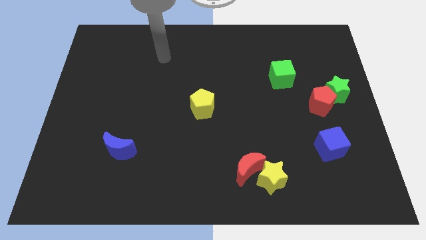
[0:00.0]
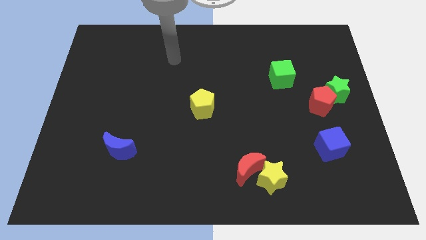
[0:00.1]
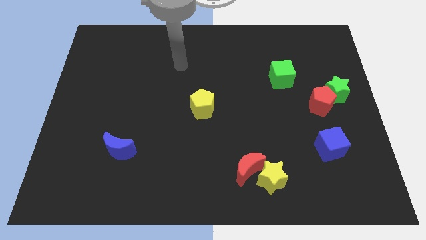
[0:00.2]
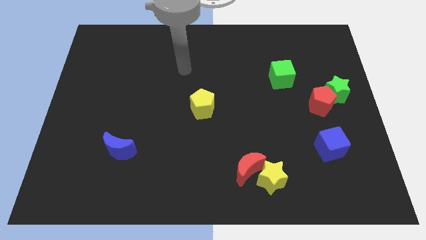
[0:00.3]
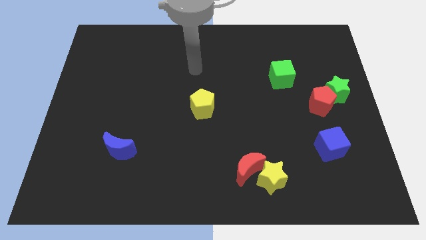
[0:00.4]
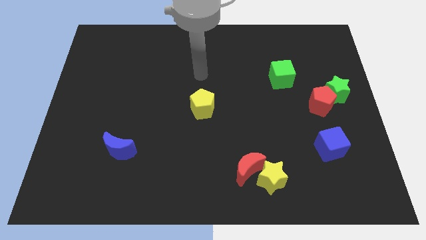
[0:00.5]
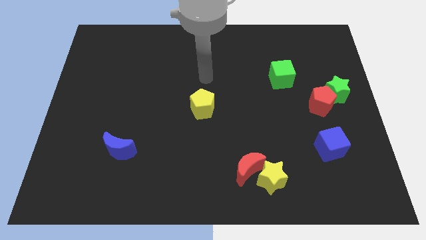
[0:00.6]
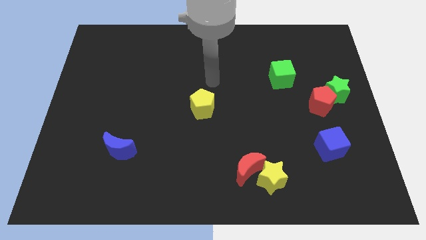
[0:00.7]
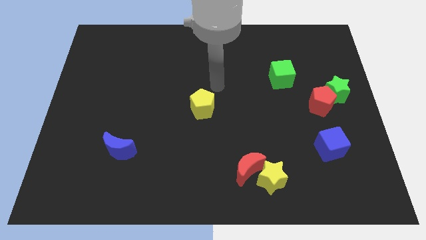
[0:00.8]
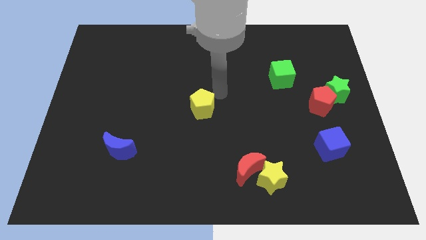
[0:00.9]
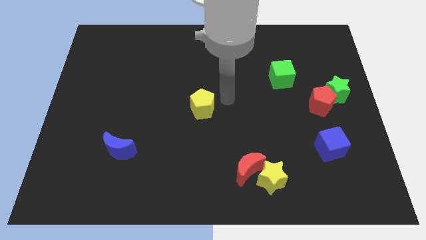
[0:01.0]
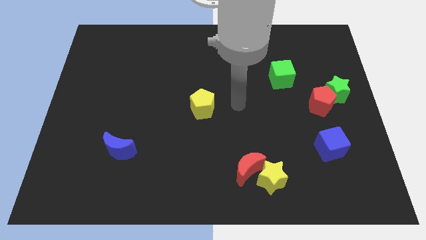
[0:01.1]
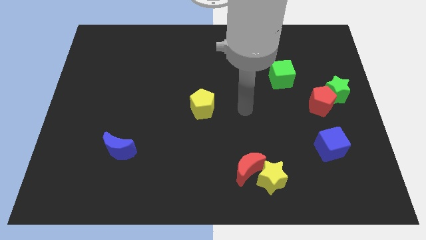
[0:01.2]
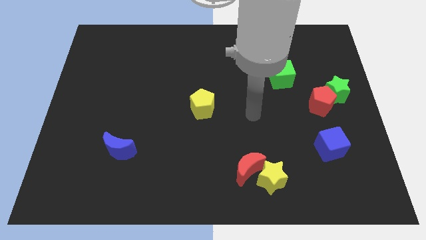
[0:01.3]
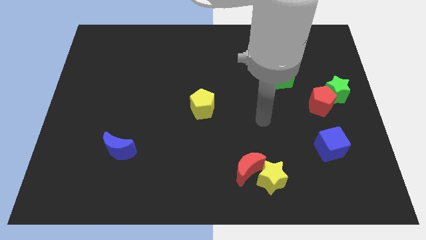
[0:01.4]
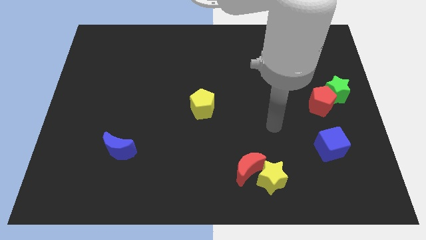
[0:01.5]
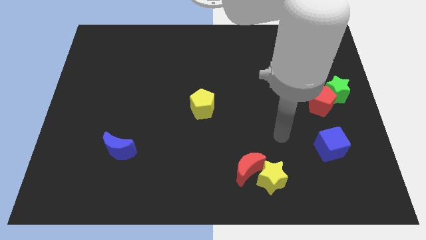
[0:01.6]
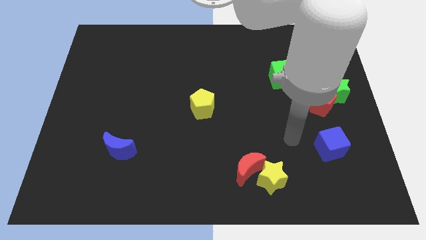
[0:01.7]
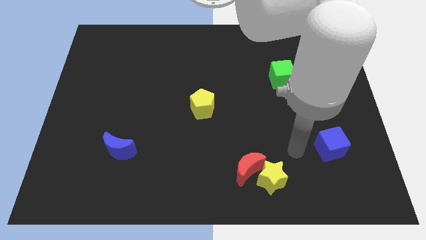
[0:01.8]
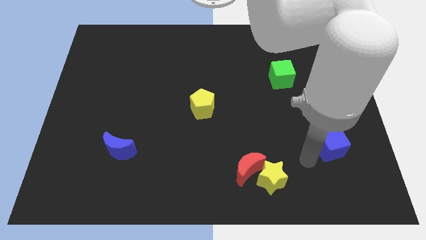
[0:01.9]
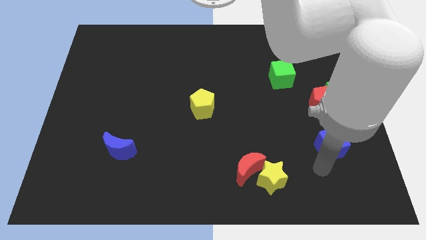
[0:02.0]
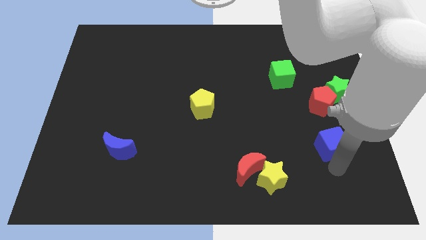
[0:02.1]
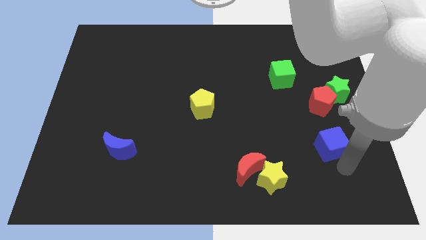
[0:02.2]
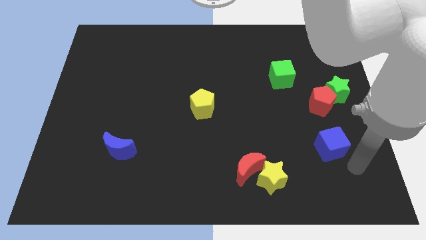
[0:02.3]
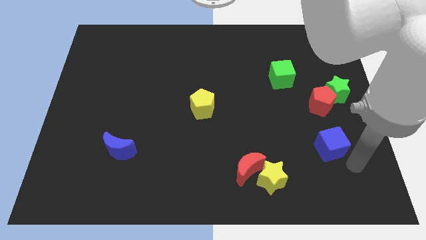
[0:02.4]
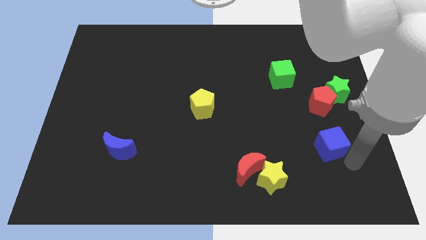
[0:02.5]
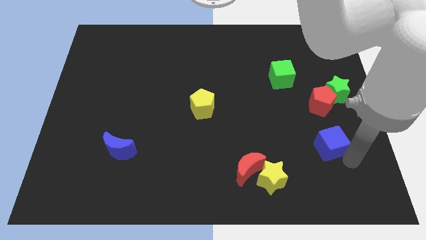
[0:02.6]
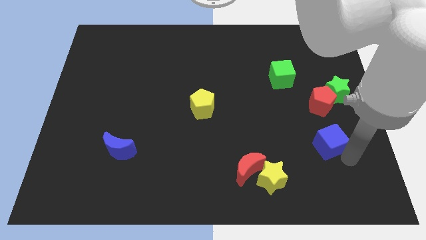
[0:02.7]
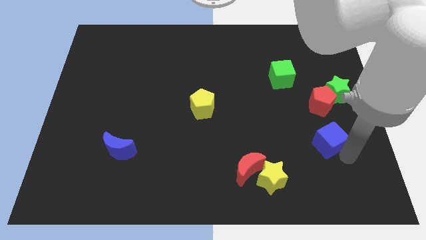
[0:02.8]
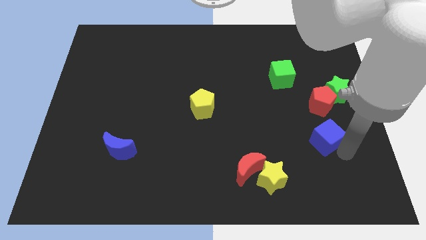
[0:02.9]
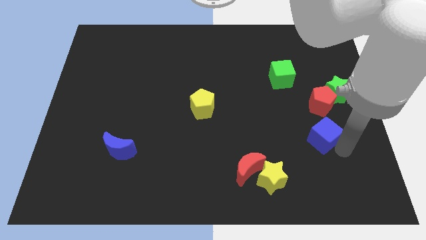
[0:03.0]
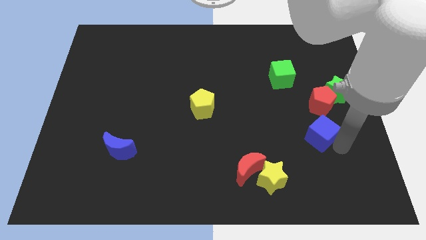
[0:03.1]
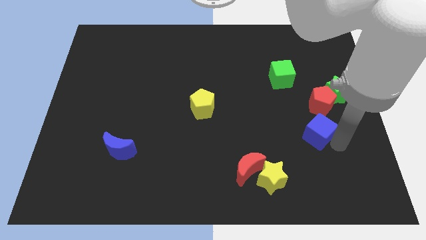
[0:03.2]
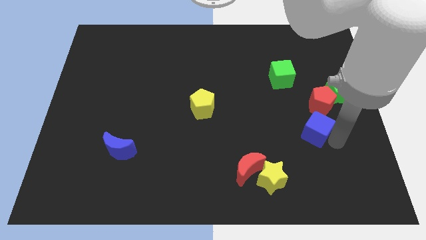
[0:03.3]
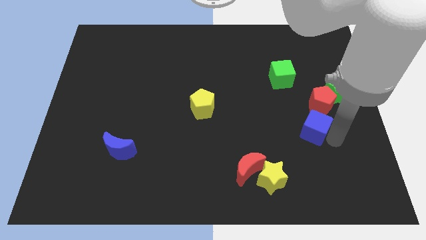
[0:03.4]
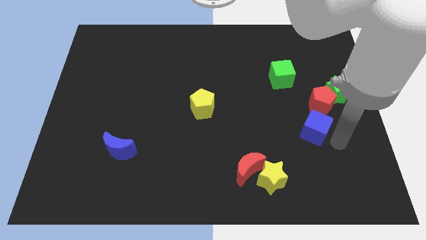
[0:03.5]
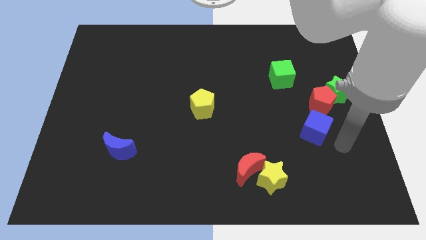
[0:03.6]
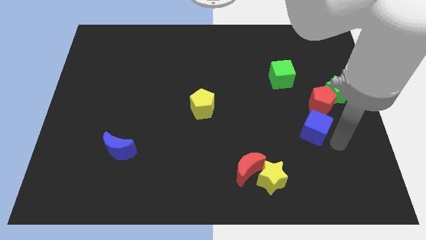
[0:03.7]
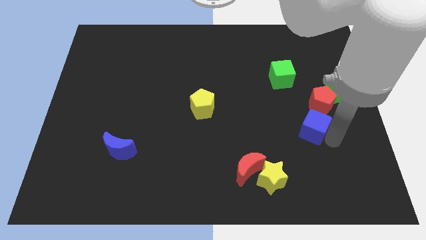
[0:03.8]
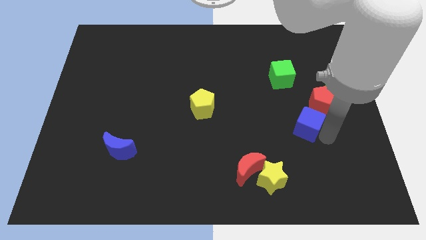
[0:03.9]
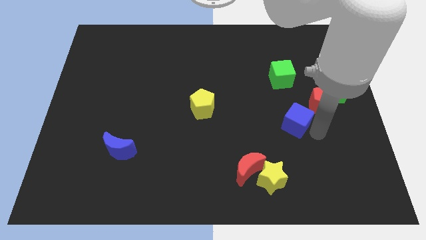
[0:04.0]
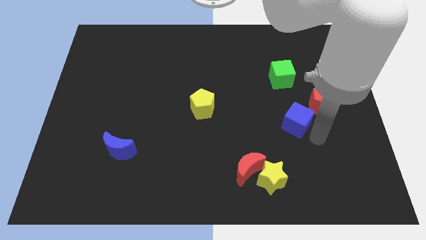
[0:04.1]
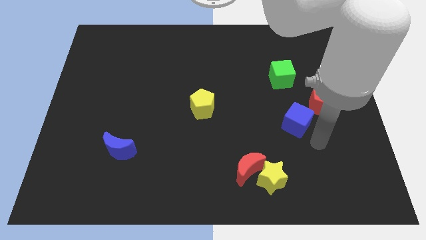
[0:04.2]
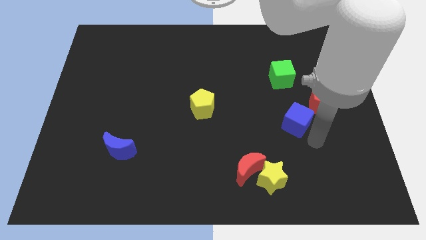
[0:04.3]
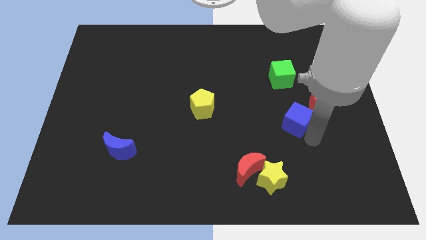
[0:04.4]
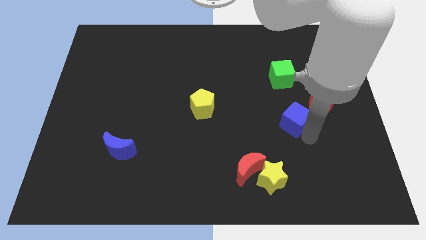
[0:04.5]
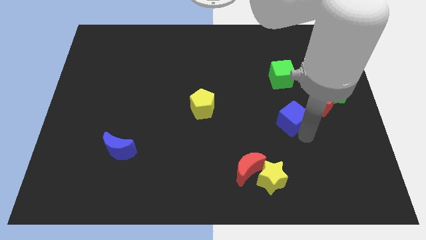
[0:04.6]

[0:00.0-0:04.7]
slide the blue cube to the left side of the red pentagon

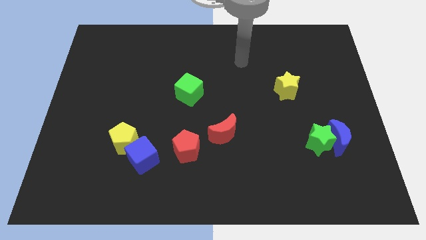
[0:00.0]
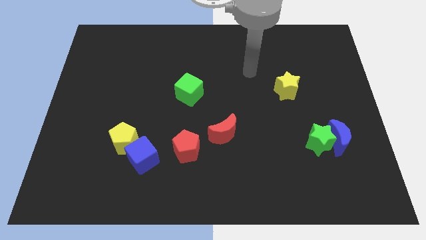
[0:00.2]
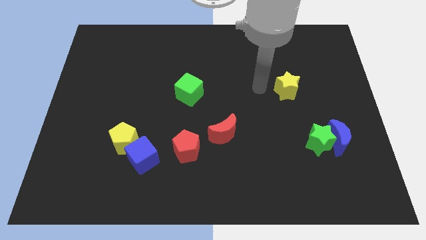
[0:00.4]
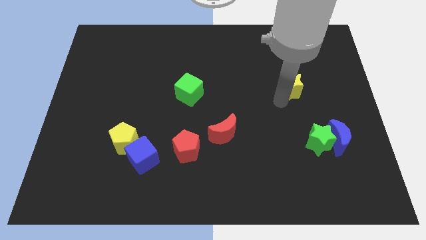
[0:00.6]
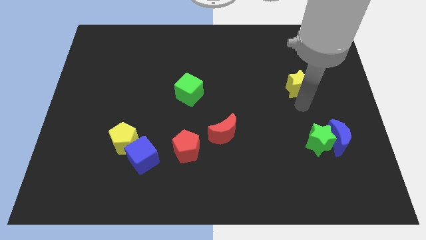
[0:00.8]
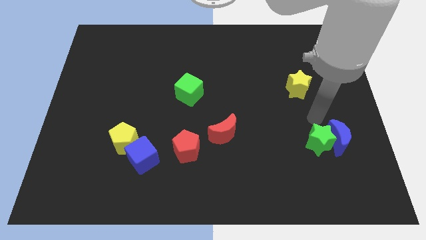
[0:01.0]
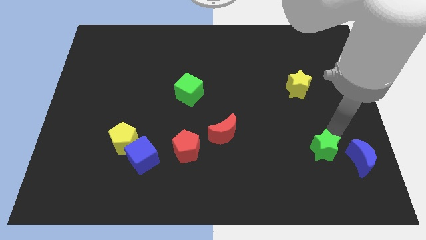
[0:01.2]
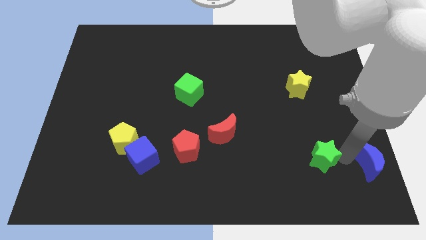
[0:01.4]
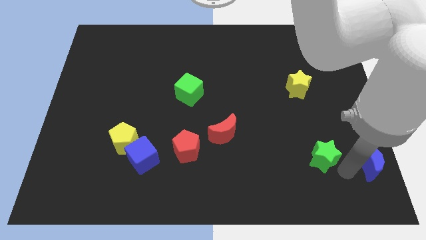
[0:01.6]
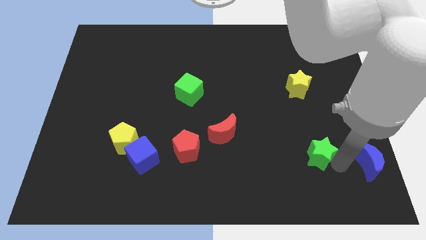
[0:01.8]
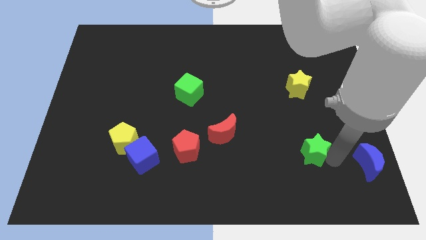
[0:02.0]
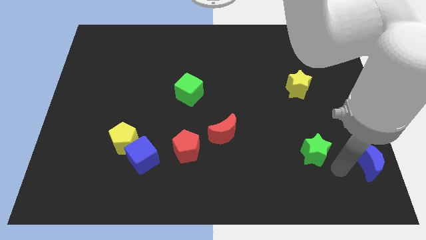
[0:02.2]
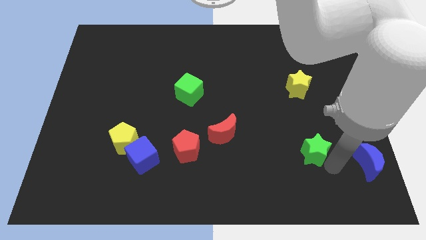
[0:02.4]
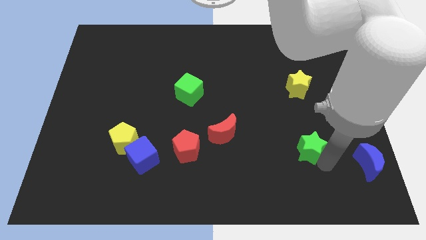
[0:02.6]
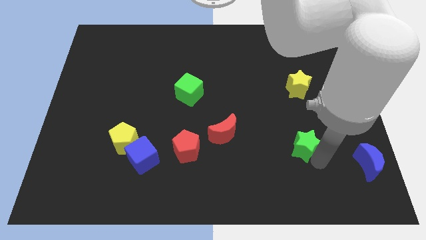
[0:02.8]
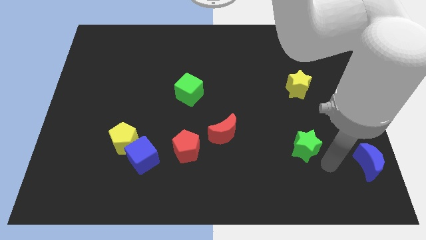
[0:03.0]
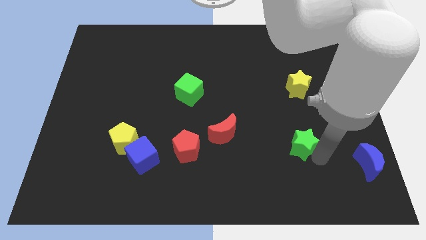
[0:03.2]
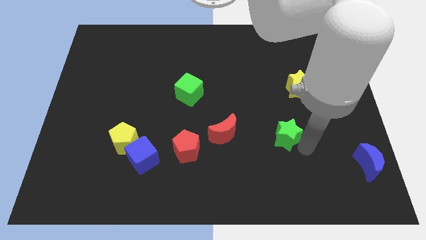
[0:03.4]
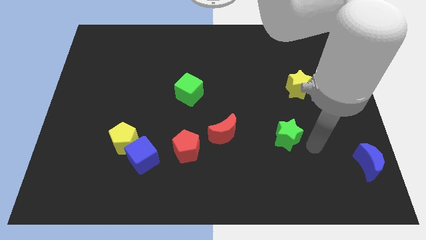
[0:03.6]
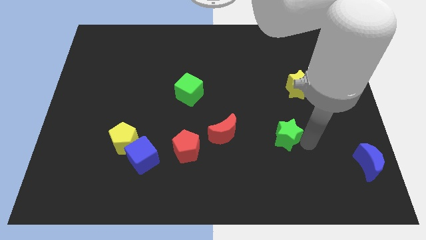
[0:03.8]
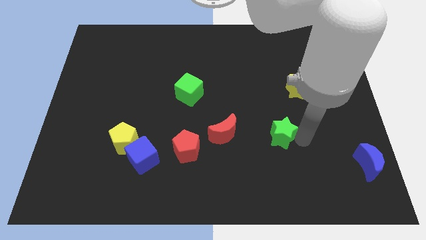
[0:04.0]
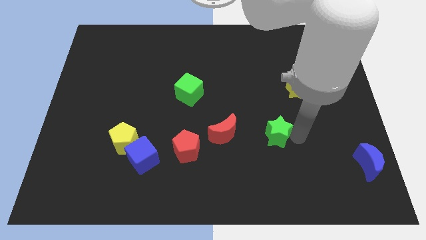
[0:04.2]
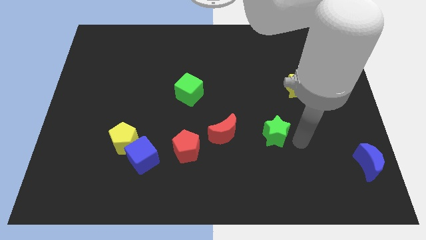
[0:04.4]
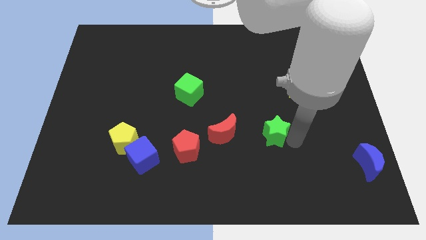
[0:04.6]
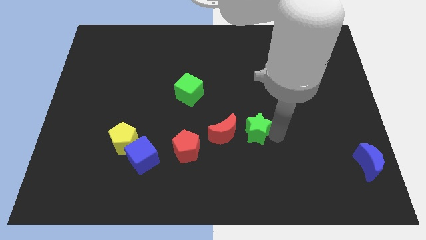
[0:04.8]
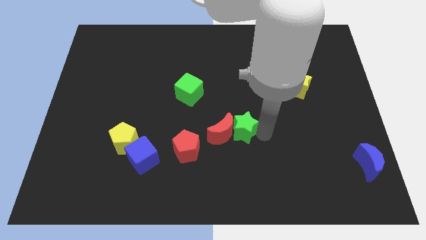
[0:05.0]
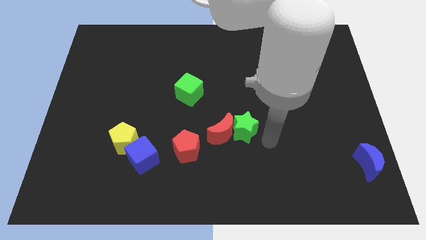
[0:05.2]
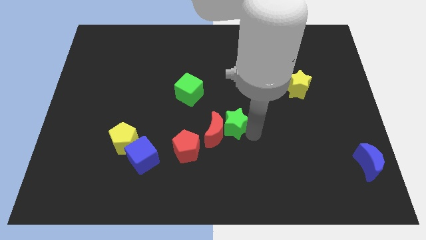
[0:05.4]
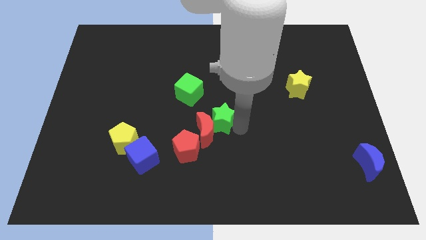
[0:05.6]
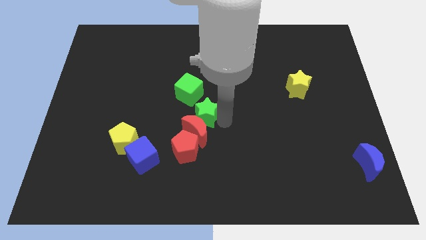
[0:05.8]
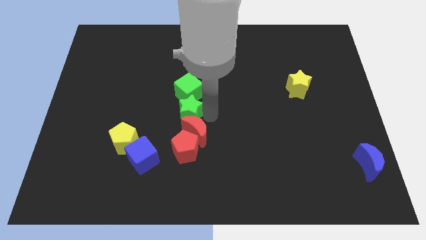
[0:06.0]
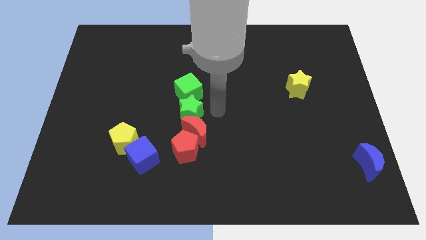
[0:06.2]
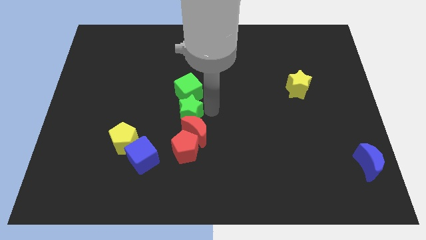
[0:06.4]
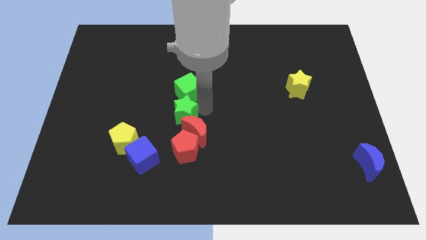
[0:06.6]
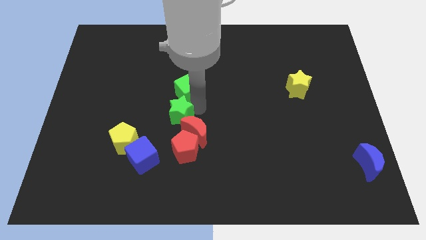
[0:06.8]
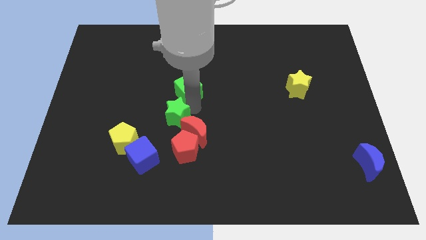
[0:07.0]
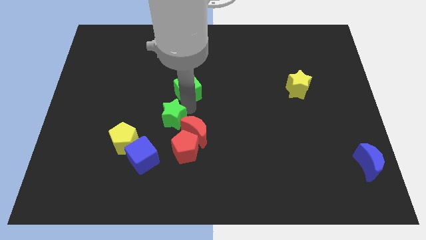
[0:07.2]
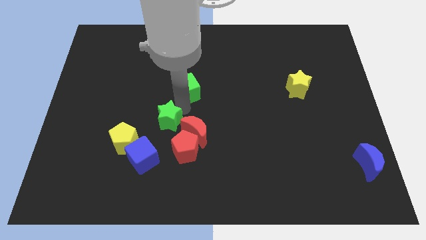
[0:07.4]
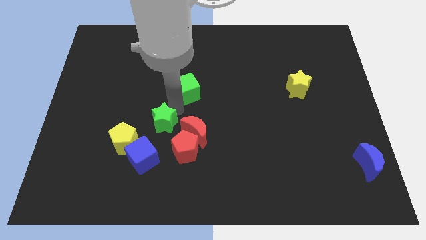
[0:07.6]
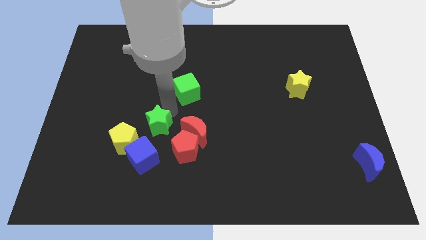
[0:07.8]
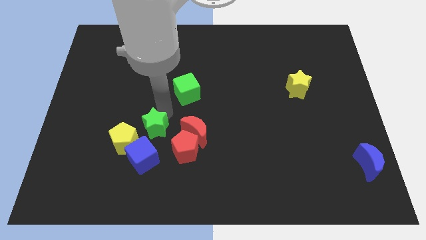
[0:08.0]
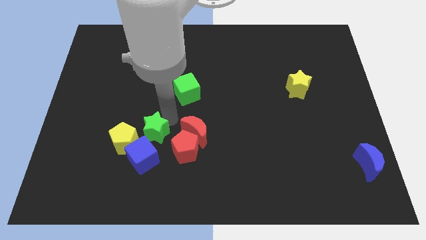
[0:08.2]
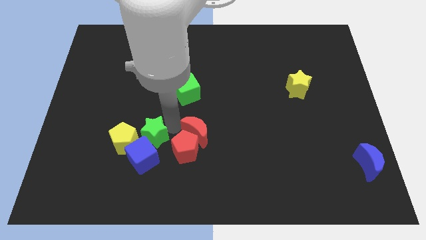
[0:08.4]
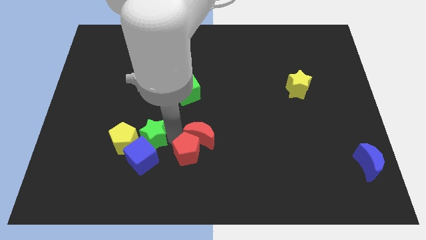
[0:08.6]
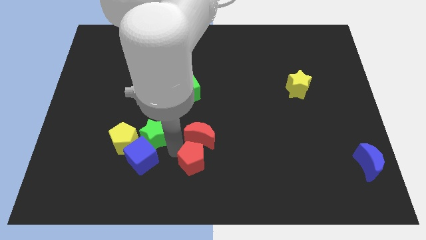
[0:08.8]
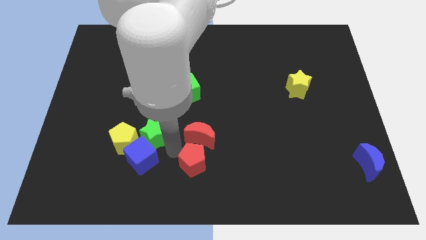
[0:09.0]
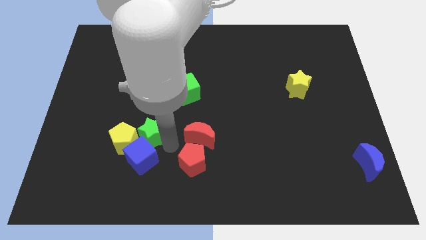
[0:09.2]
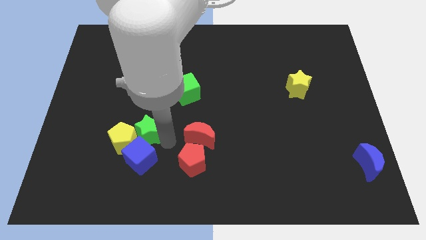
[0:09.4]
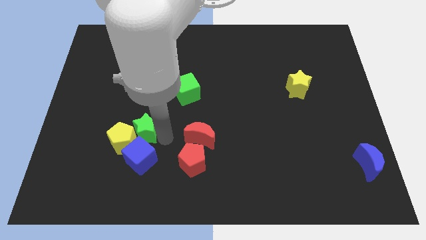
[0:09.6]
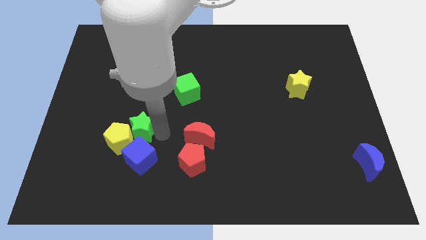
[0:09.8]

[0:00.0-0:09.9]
slide the green star to the top left of the blue cube
